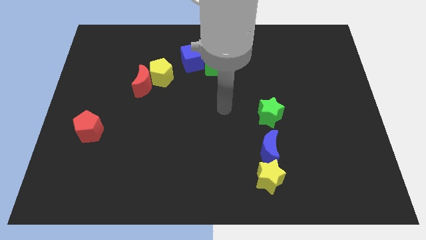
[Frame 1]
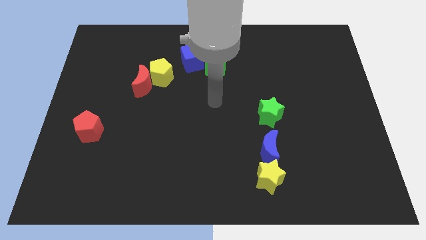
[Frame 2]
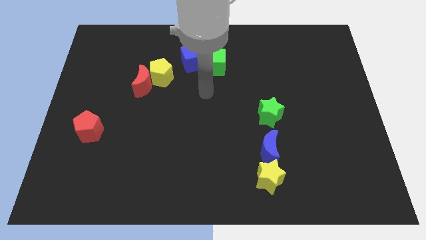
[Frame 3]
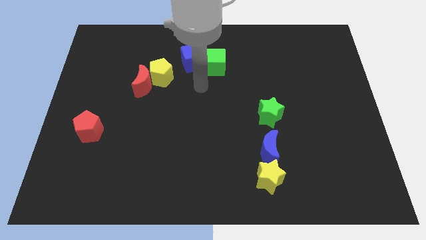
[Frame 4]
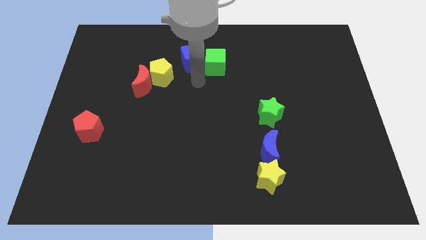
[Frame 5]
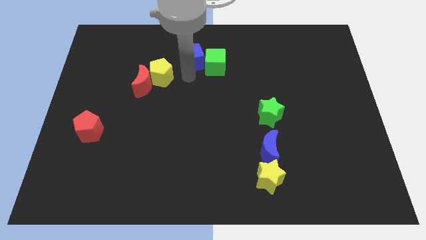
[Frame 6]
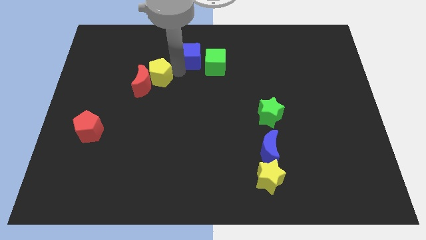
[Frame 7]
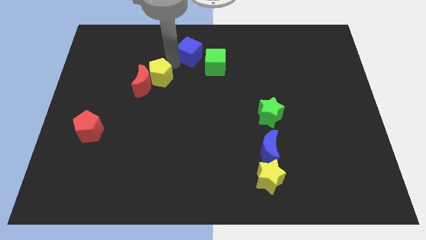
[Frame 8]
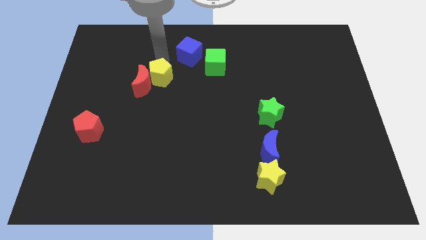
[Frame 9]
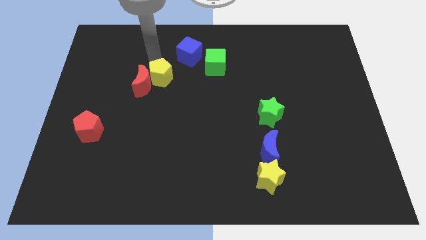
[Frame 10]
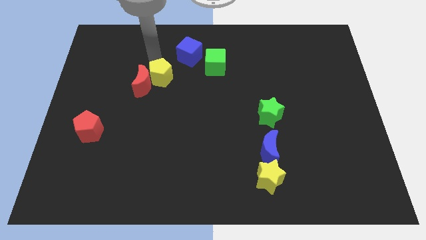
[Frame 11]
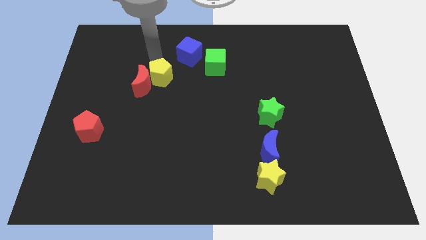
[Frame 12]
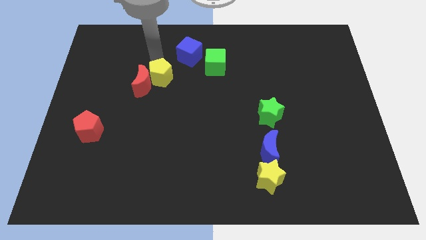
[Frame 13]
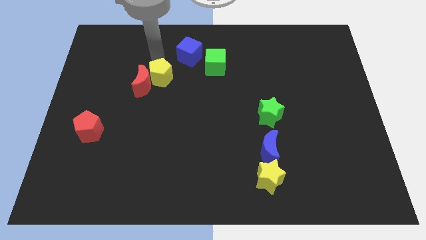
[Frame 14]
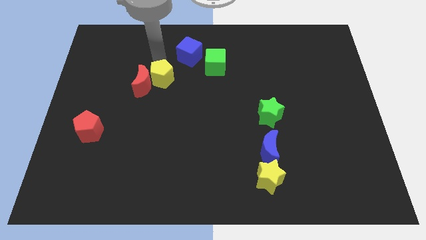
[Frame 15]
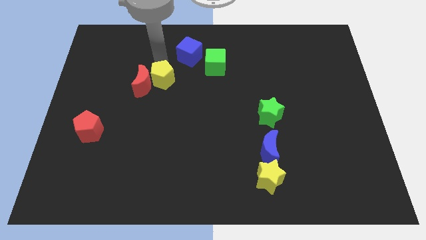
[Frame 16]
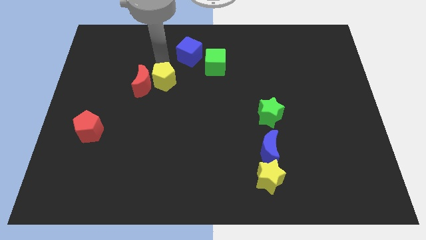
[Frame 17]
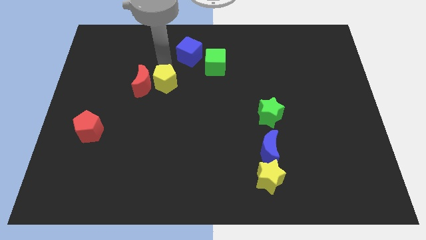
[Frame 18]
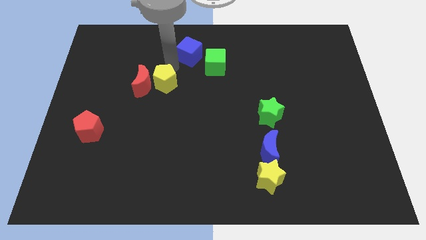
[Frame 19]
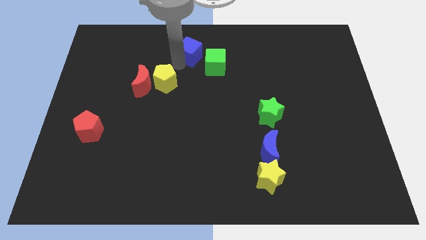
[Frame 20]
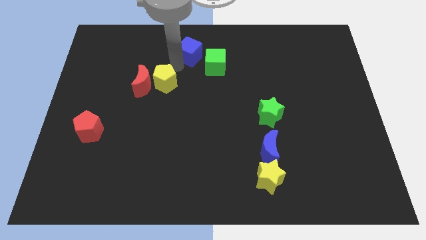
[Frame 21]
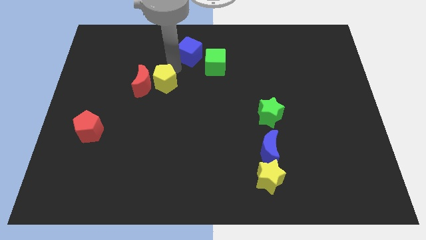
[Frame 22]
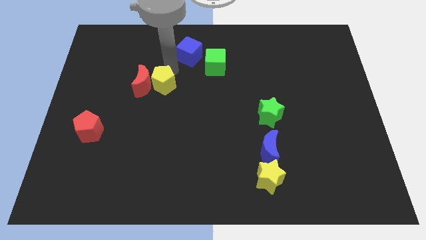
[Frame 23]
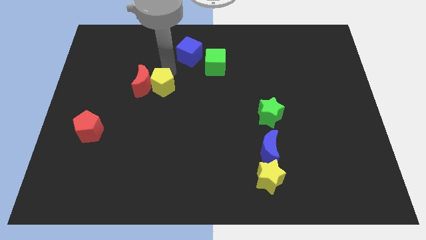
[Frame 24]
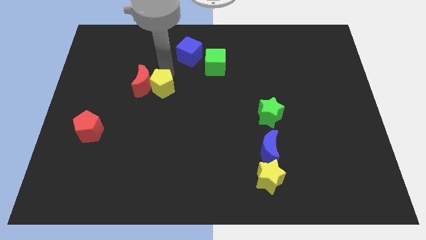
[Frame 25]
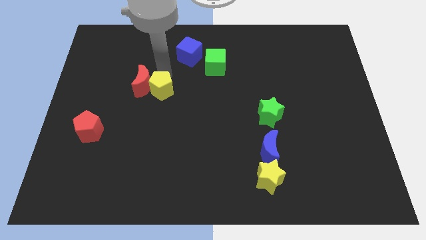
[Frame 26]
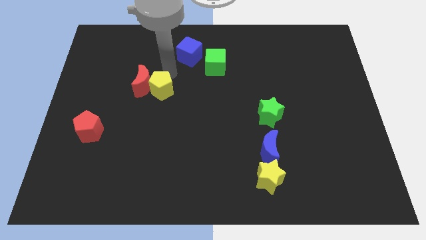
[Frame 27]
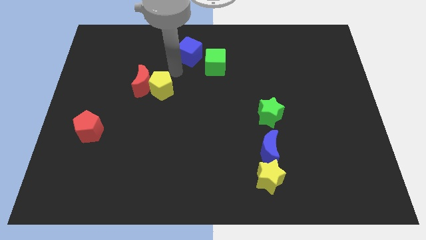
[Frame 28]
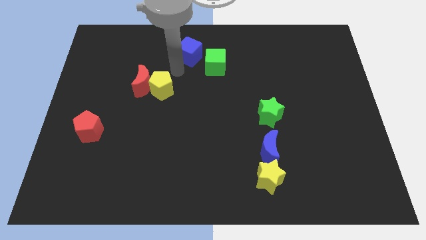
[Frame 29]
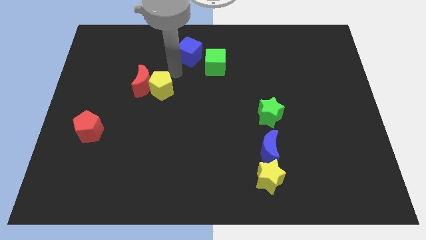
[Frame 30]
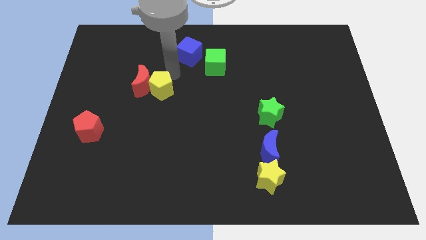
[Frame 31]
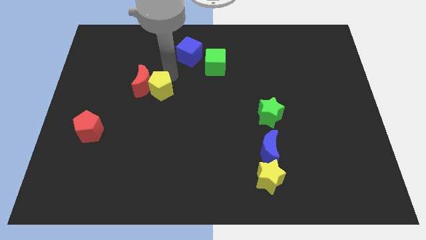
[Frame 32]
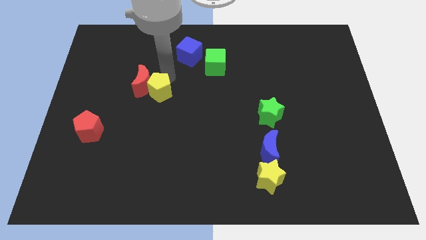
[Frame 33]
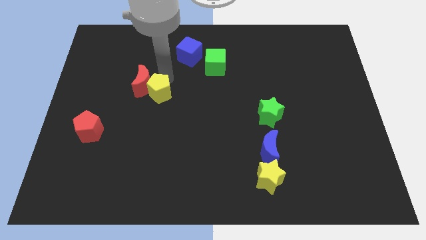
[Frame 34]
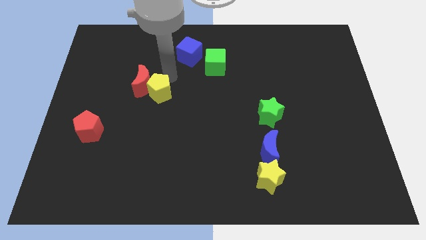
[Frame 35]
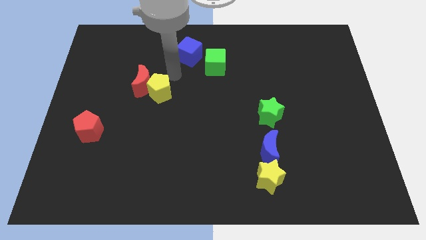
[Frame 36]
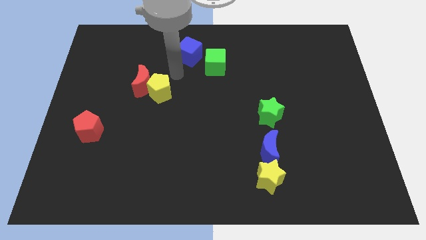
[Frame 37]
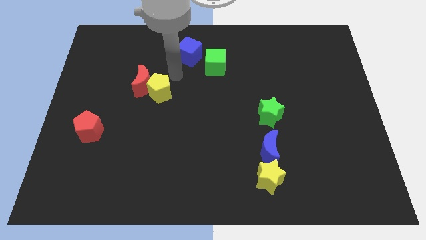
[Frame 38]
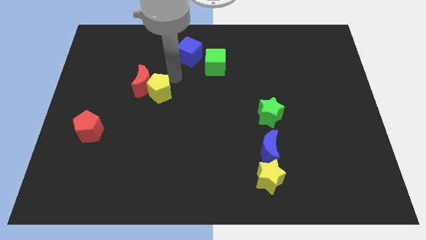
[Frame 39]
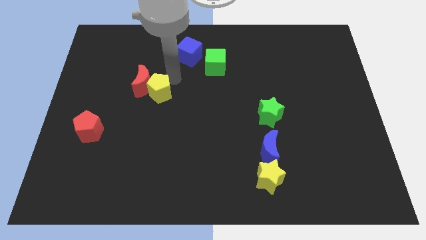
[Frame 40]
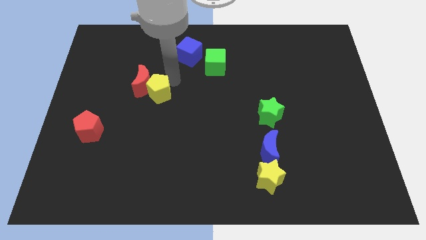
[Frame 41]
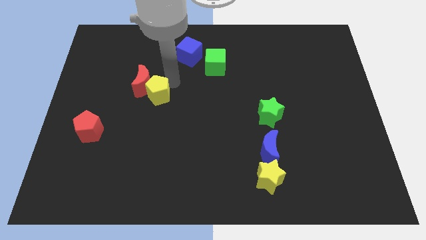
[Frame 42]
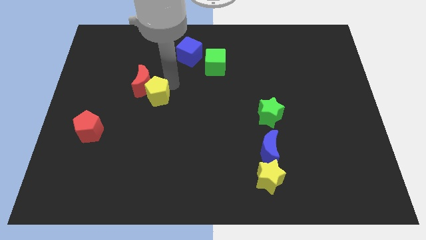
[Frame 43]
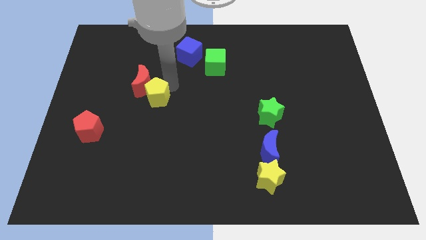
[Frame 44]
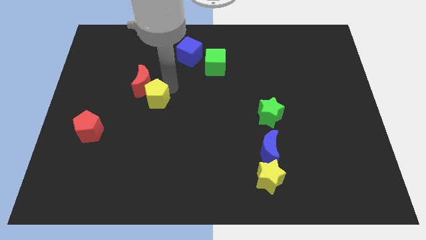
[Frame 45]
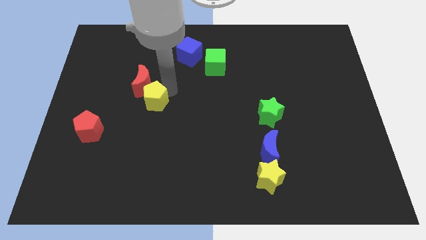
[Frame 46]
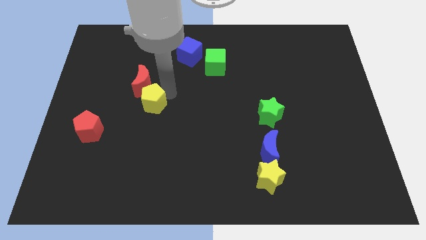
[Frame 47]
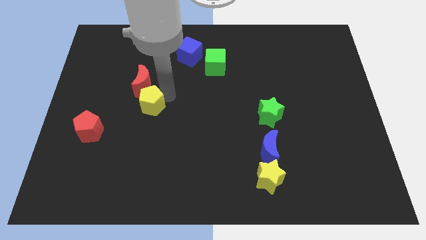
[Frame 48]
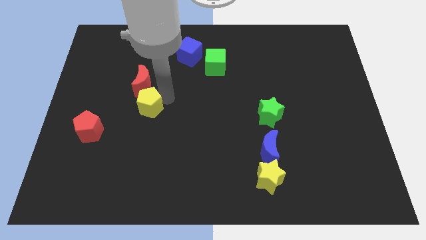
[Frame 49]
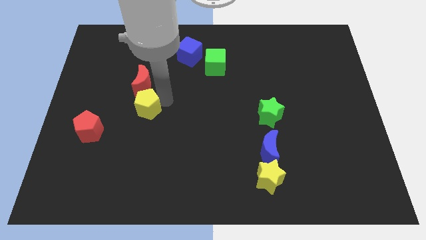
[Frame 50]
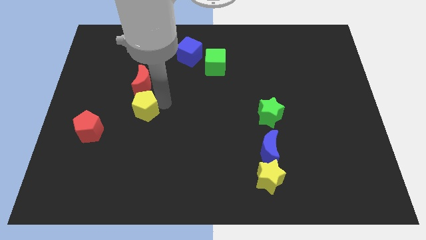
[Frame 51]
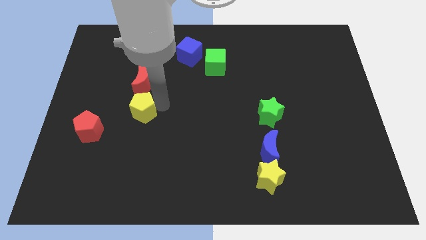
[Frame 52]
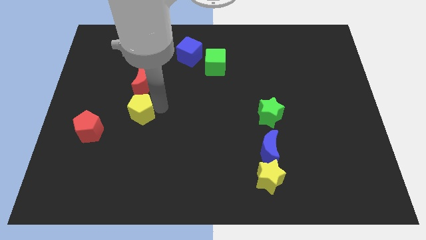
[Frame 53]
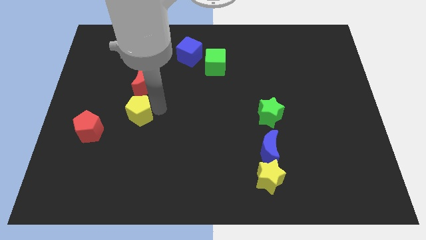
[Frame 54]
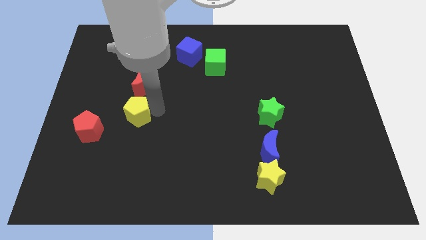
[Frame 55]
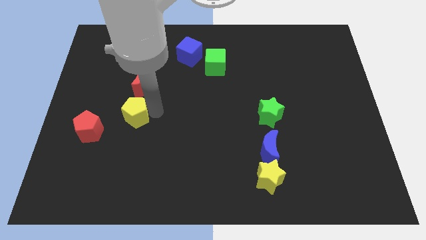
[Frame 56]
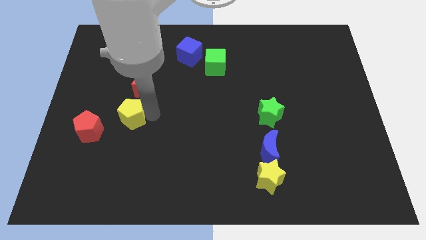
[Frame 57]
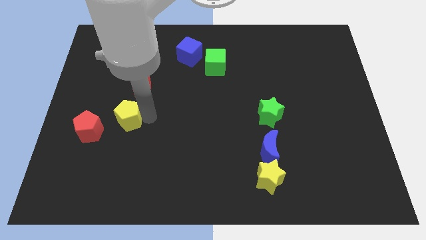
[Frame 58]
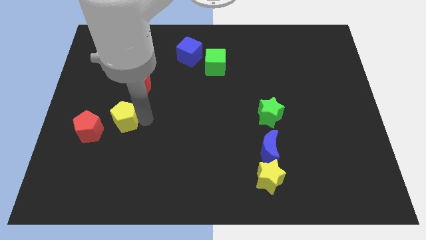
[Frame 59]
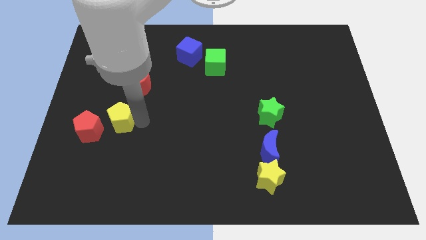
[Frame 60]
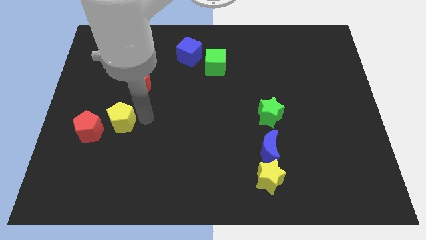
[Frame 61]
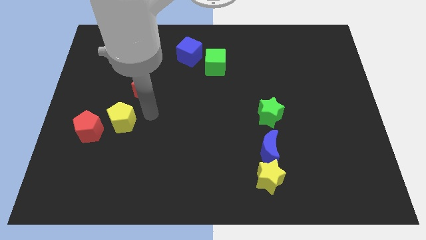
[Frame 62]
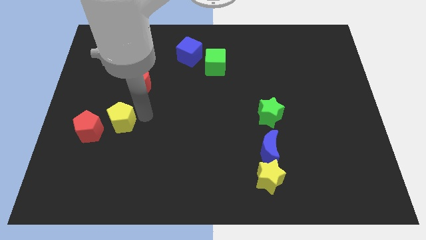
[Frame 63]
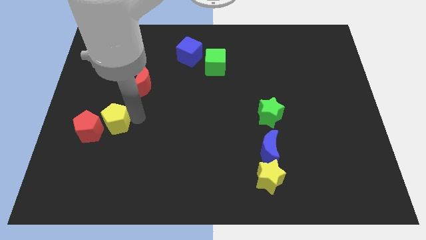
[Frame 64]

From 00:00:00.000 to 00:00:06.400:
slide the yellow pentagon close to the red pentagon
